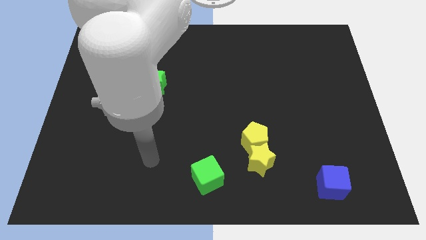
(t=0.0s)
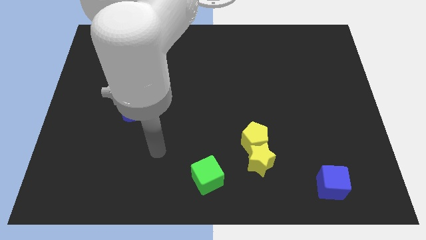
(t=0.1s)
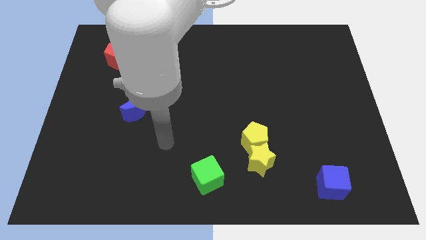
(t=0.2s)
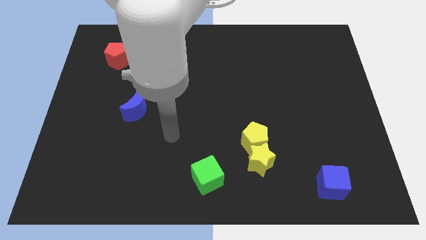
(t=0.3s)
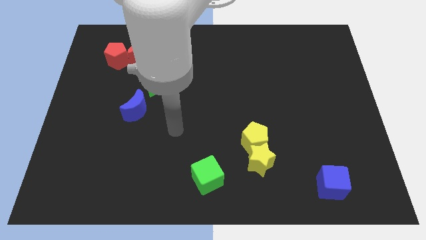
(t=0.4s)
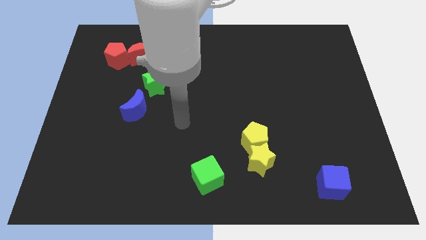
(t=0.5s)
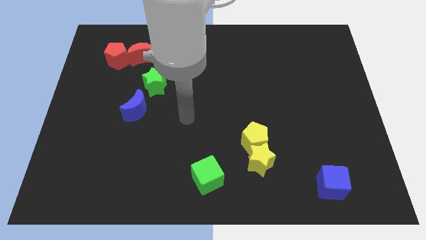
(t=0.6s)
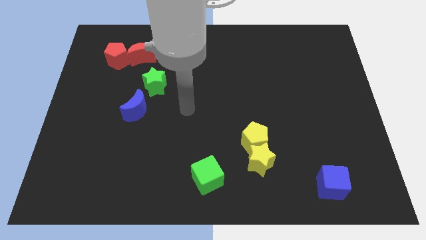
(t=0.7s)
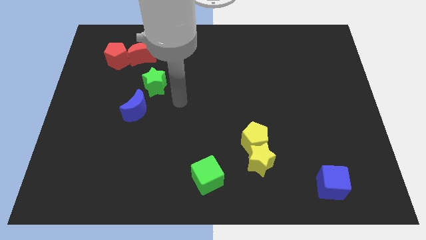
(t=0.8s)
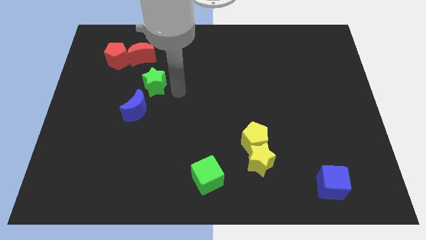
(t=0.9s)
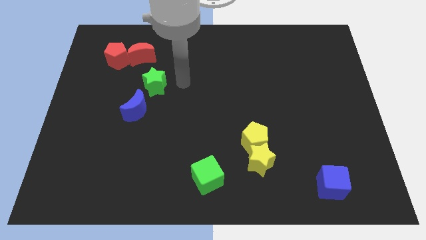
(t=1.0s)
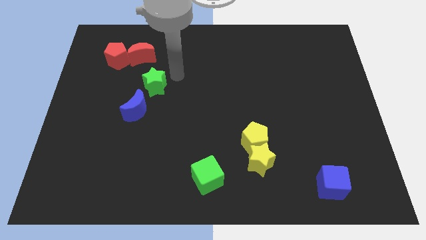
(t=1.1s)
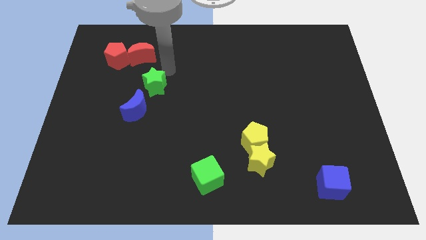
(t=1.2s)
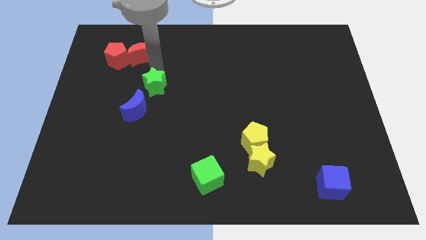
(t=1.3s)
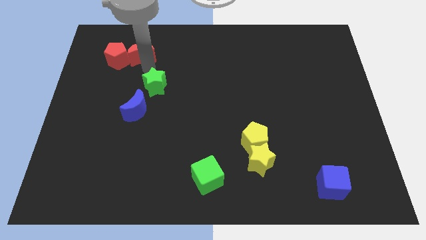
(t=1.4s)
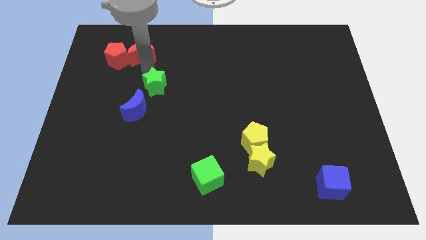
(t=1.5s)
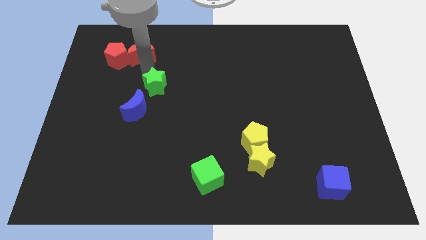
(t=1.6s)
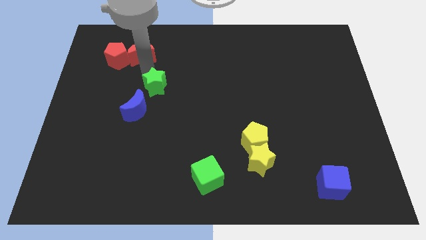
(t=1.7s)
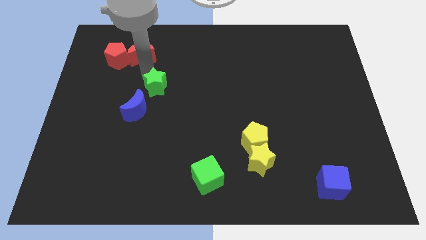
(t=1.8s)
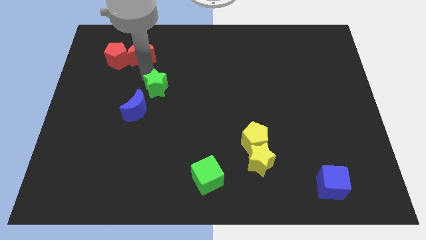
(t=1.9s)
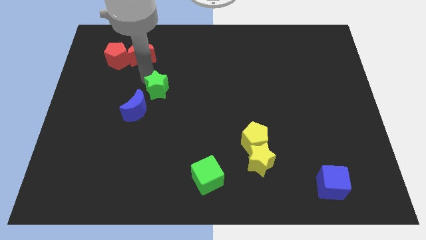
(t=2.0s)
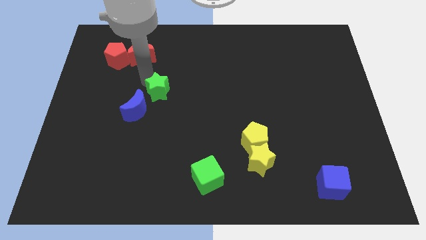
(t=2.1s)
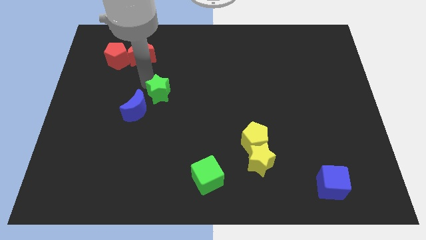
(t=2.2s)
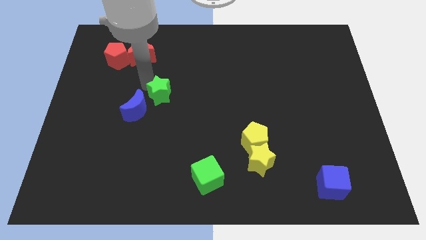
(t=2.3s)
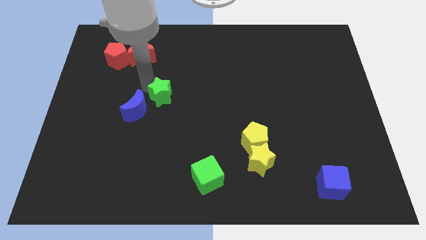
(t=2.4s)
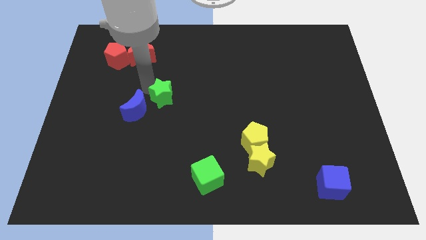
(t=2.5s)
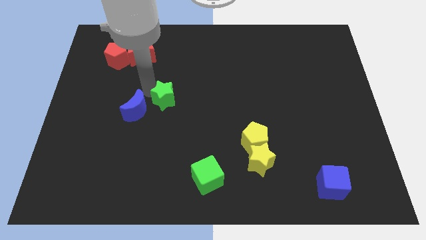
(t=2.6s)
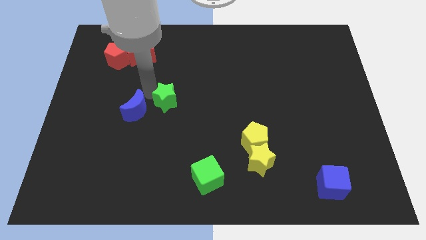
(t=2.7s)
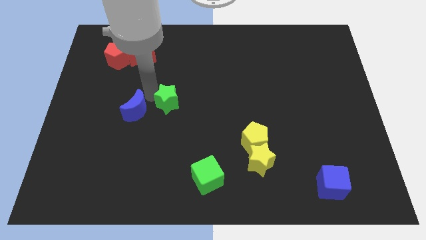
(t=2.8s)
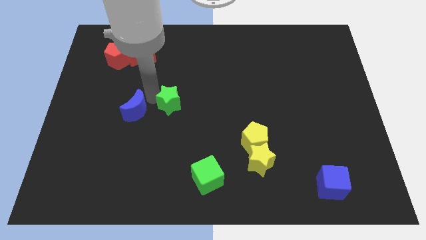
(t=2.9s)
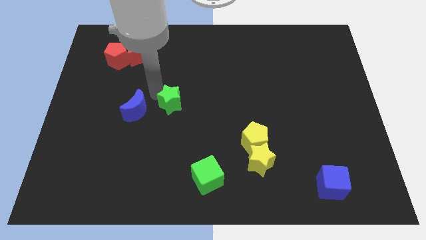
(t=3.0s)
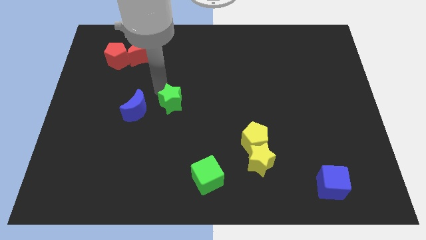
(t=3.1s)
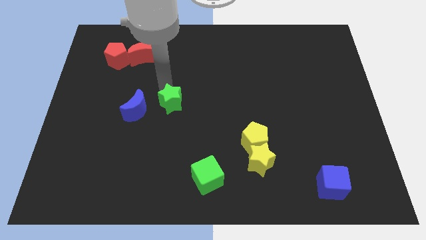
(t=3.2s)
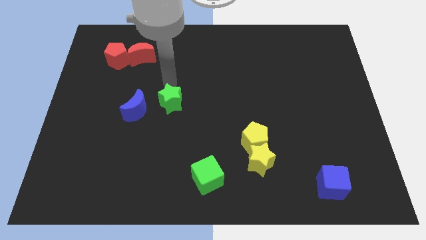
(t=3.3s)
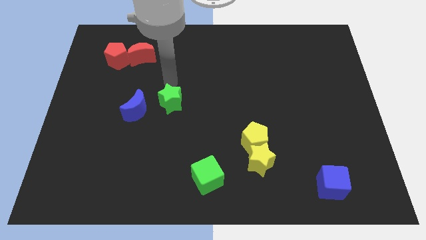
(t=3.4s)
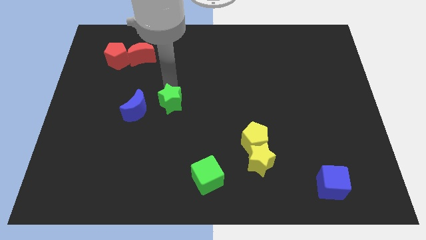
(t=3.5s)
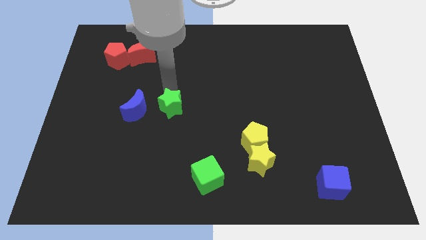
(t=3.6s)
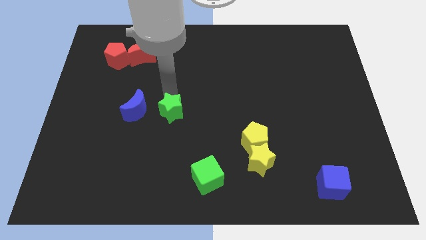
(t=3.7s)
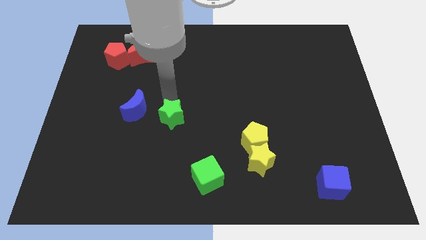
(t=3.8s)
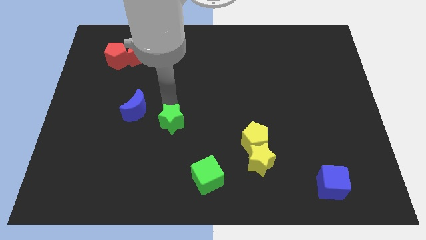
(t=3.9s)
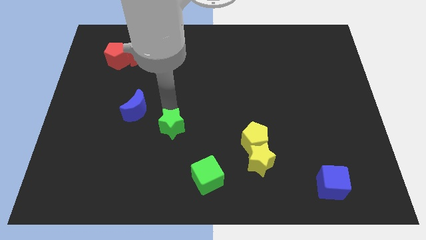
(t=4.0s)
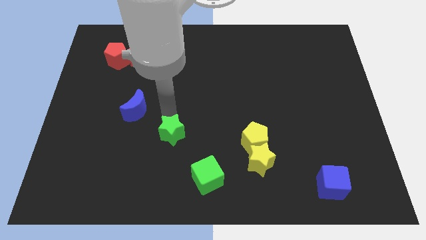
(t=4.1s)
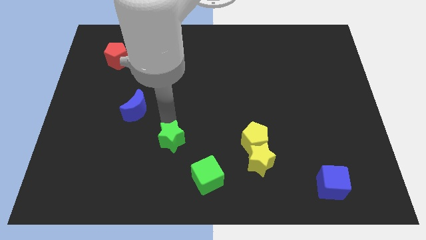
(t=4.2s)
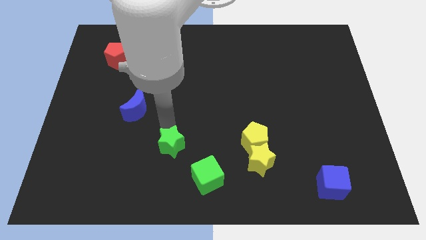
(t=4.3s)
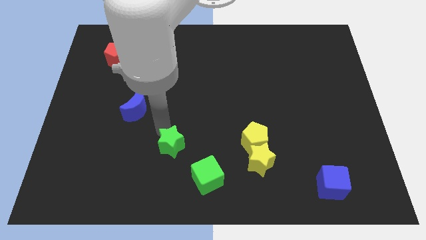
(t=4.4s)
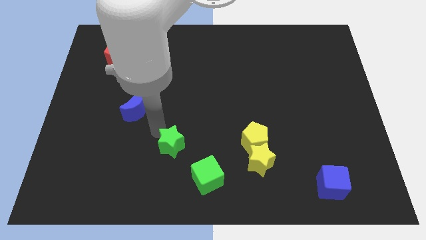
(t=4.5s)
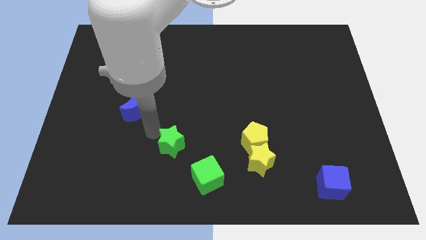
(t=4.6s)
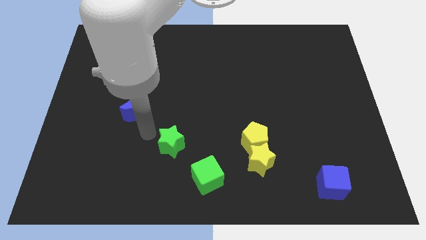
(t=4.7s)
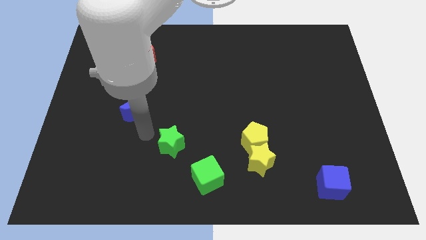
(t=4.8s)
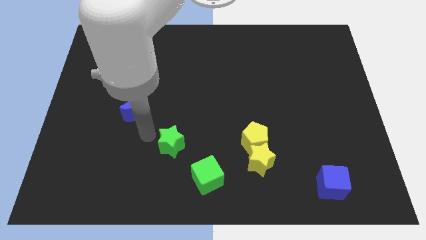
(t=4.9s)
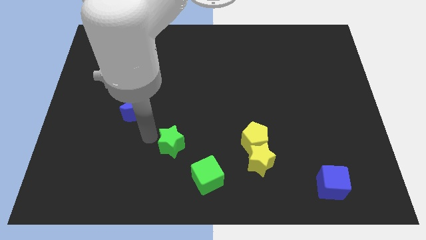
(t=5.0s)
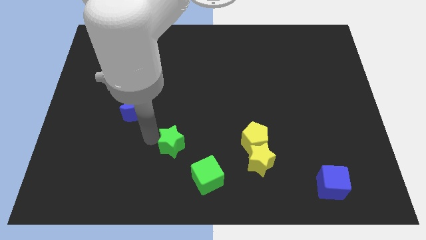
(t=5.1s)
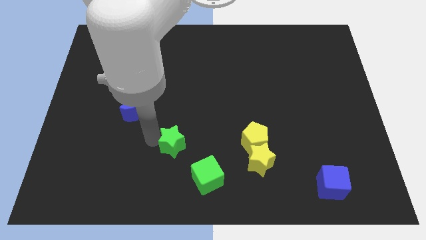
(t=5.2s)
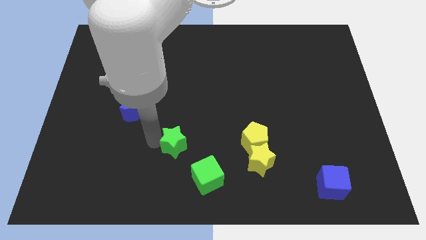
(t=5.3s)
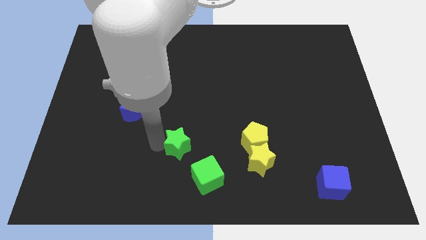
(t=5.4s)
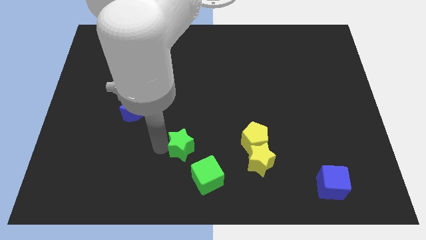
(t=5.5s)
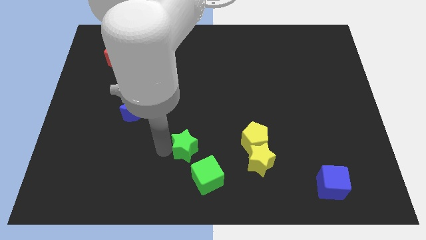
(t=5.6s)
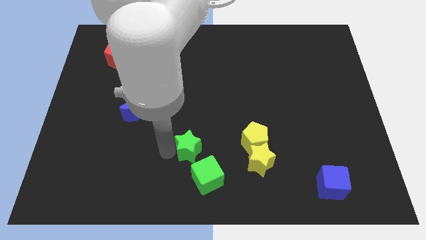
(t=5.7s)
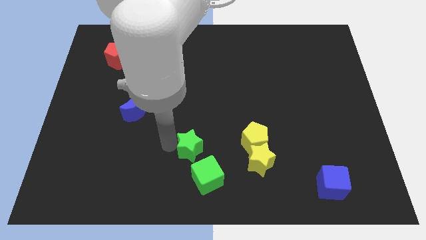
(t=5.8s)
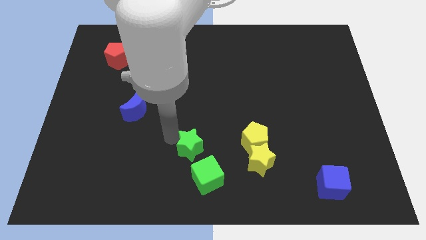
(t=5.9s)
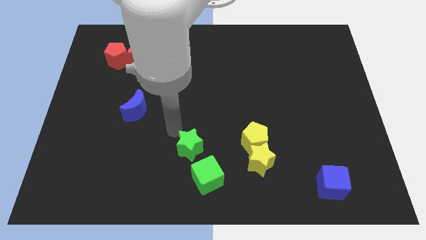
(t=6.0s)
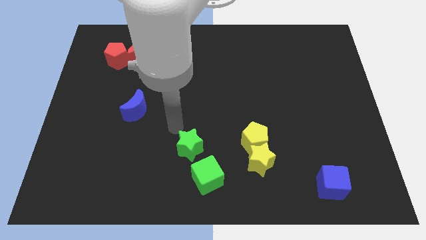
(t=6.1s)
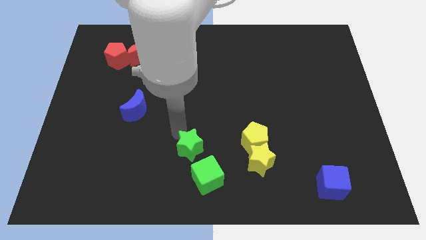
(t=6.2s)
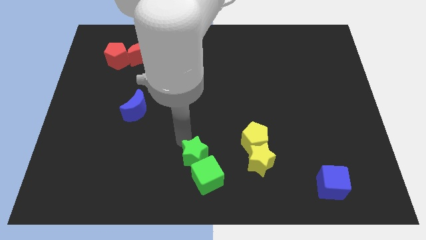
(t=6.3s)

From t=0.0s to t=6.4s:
slide the green star to the green cube

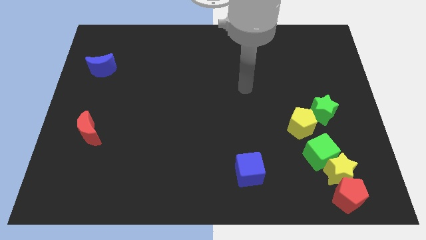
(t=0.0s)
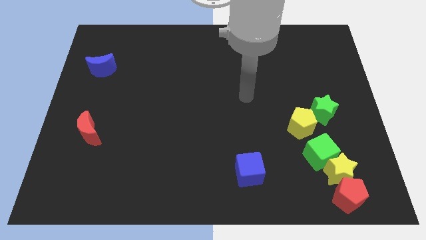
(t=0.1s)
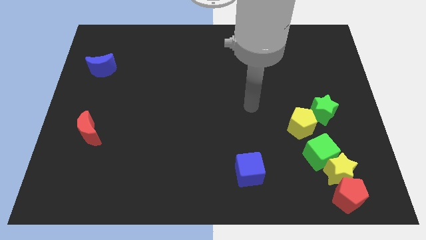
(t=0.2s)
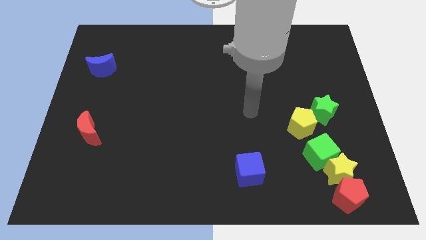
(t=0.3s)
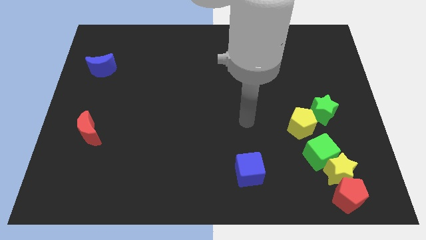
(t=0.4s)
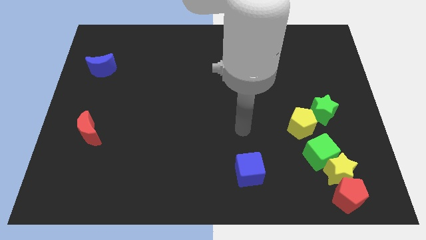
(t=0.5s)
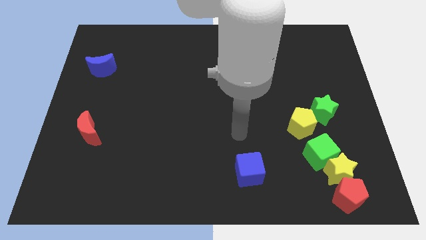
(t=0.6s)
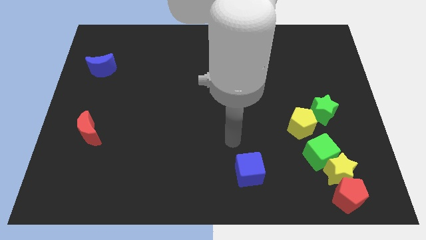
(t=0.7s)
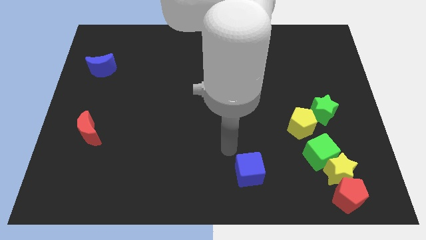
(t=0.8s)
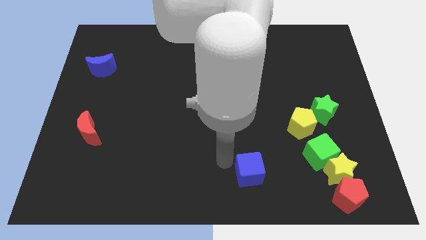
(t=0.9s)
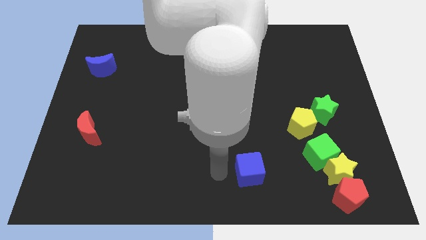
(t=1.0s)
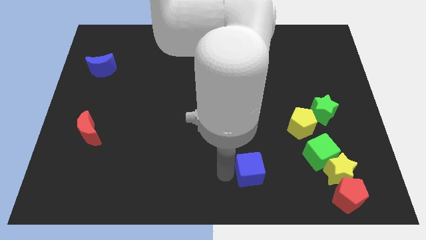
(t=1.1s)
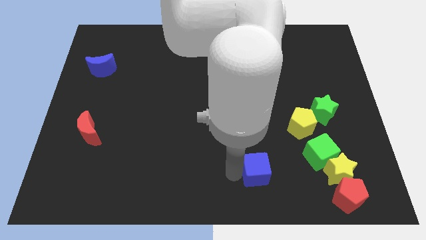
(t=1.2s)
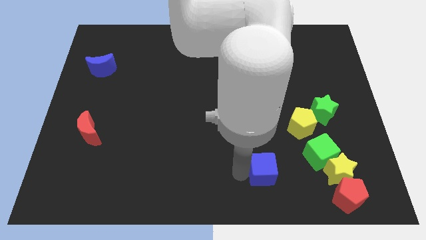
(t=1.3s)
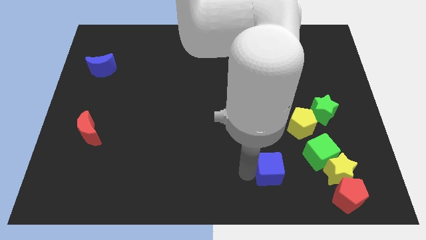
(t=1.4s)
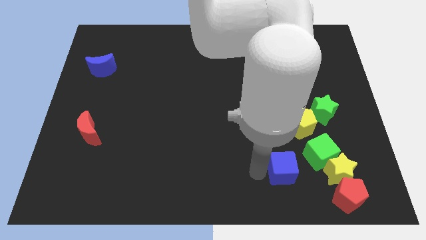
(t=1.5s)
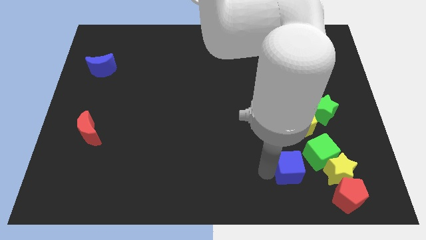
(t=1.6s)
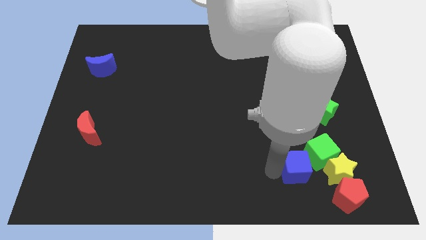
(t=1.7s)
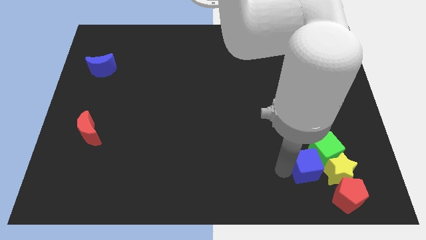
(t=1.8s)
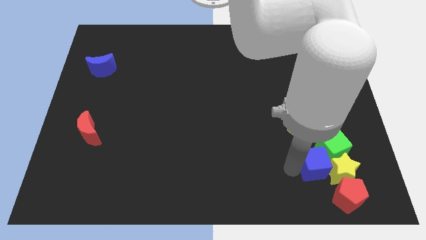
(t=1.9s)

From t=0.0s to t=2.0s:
put the blue cube close to the yellow star

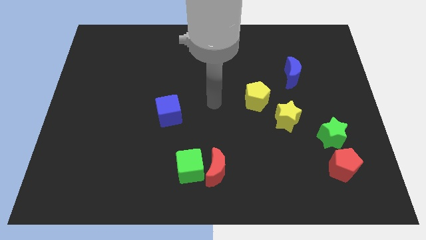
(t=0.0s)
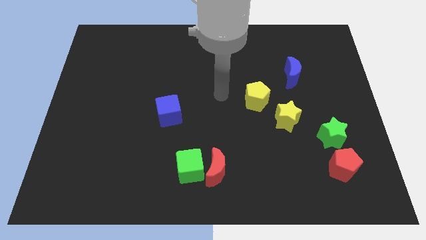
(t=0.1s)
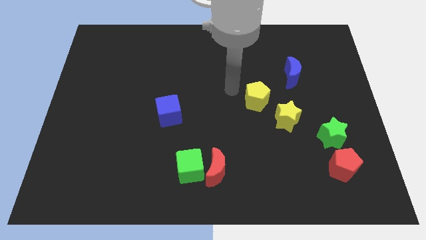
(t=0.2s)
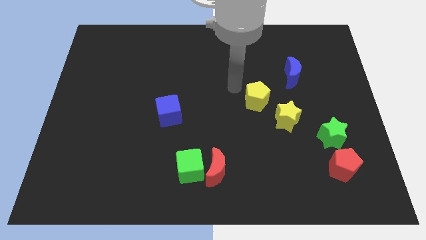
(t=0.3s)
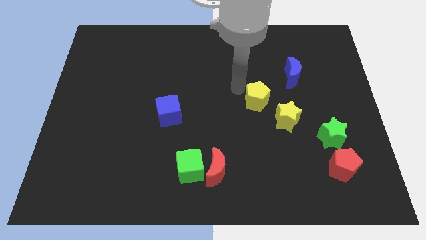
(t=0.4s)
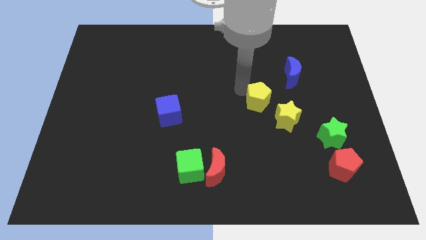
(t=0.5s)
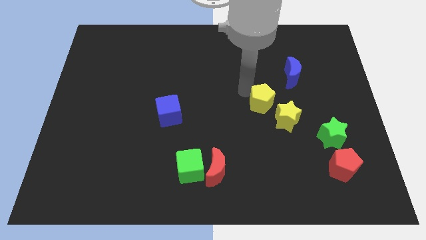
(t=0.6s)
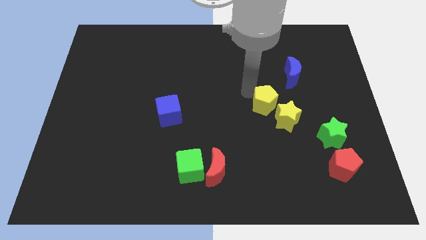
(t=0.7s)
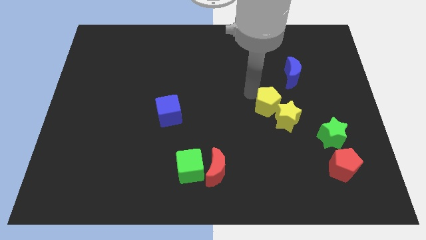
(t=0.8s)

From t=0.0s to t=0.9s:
push the yellow pentagon to the yellow star
